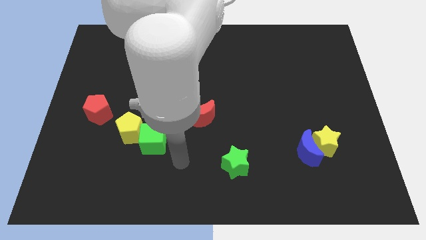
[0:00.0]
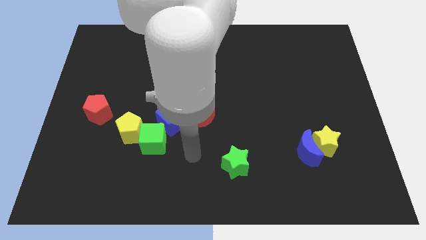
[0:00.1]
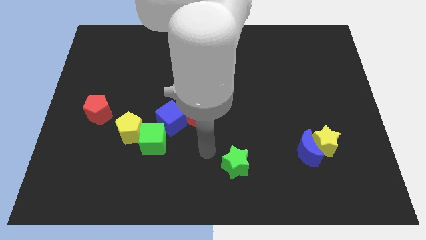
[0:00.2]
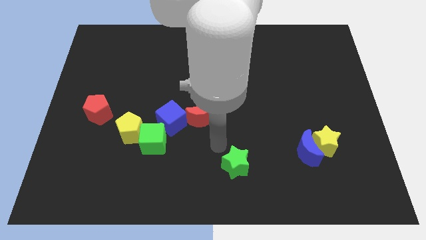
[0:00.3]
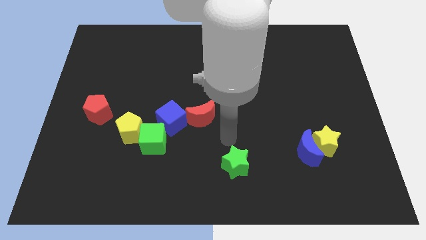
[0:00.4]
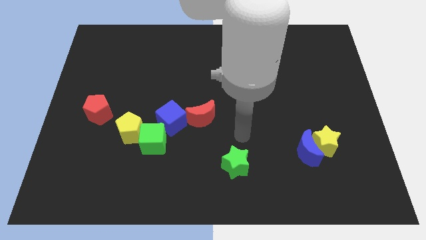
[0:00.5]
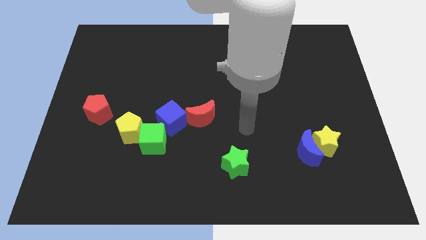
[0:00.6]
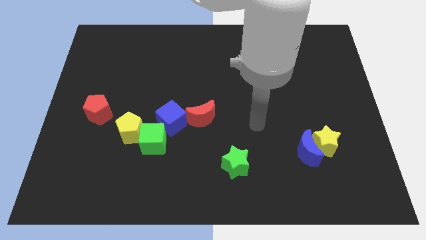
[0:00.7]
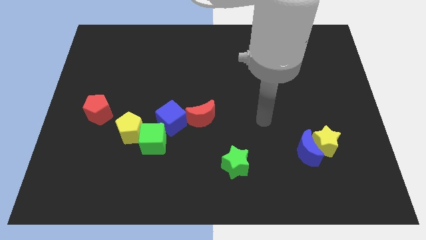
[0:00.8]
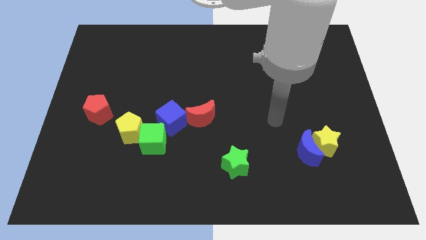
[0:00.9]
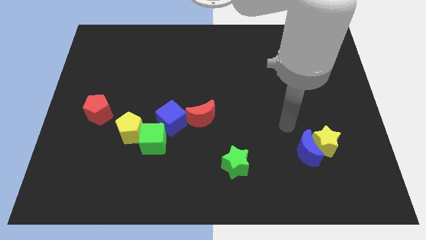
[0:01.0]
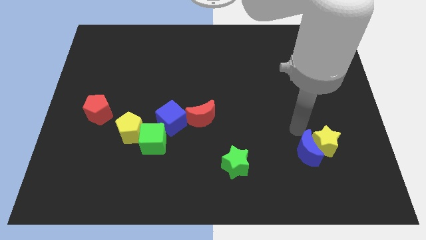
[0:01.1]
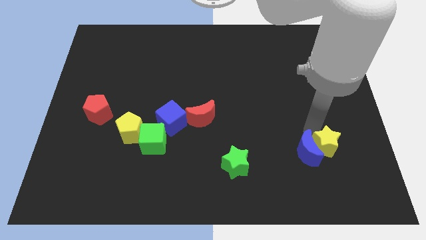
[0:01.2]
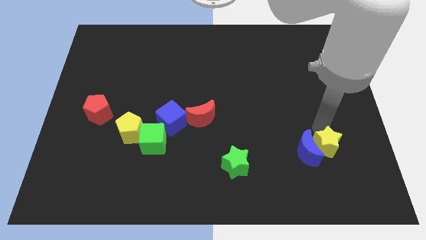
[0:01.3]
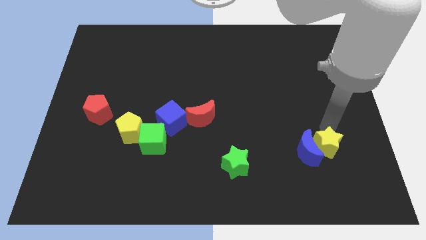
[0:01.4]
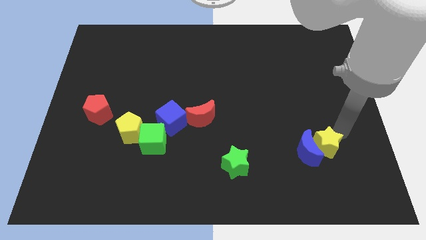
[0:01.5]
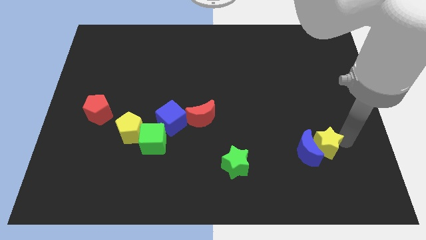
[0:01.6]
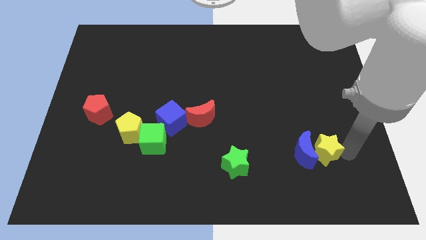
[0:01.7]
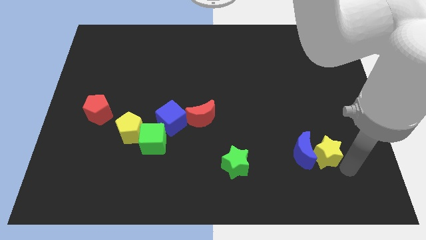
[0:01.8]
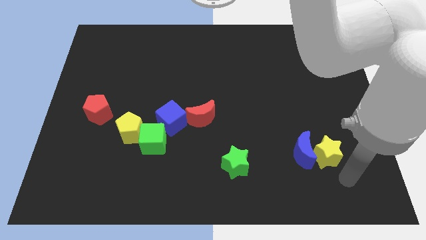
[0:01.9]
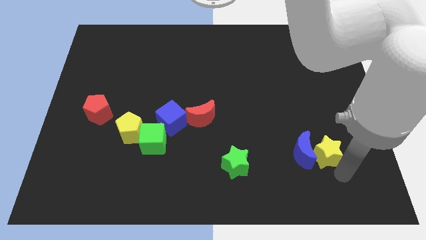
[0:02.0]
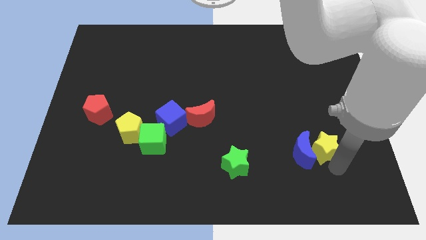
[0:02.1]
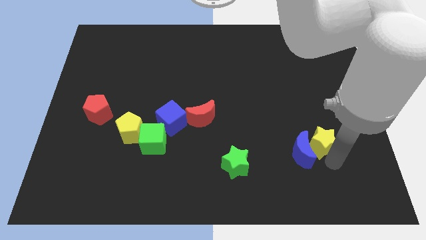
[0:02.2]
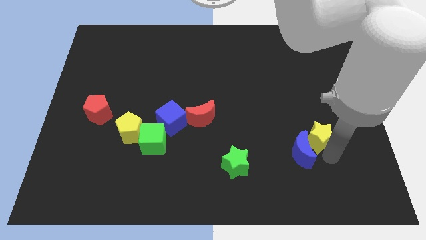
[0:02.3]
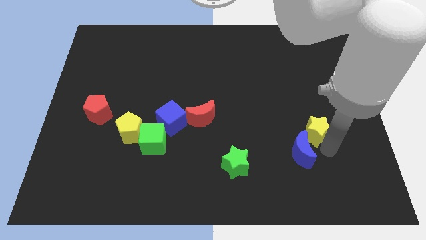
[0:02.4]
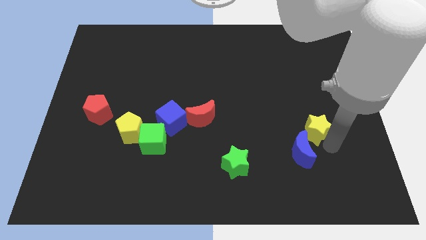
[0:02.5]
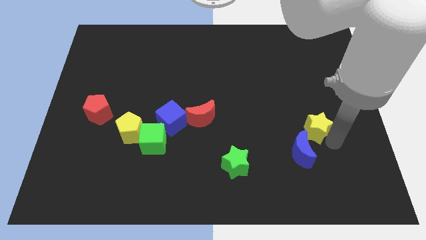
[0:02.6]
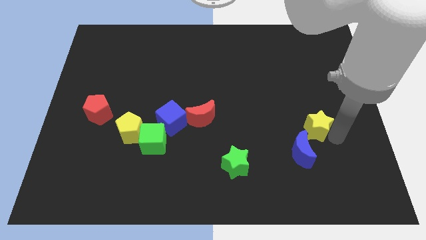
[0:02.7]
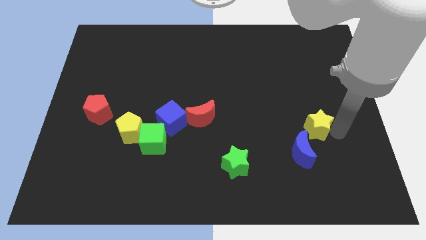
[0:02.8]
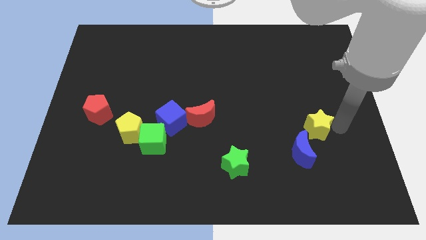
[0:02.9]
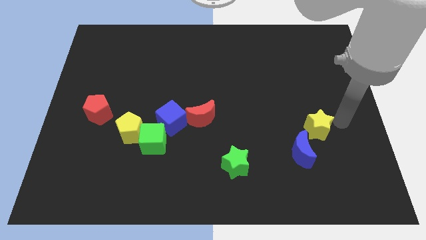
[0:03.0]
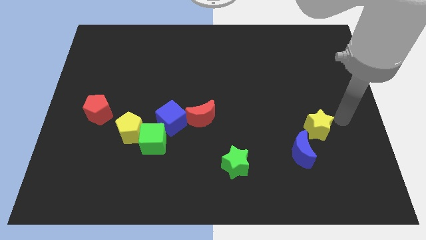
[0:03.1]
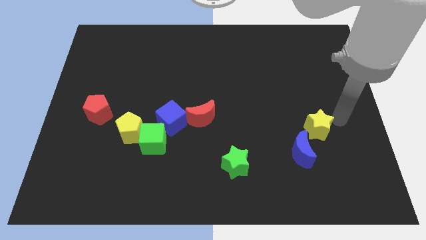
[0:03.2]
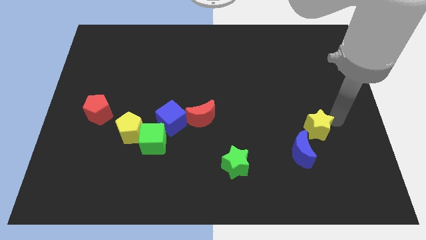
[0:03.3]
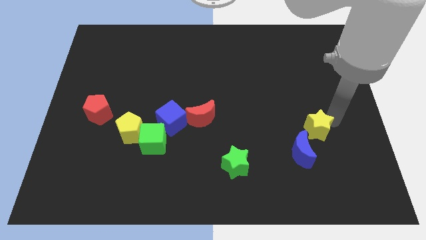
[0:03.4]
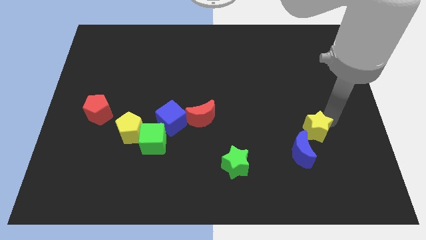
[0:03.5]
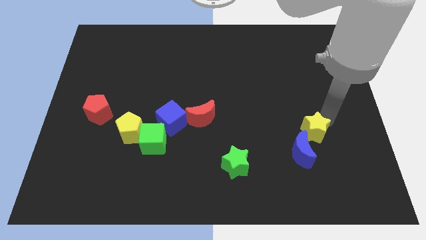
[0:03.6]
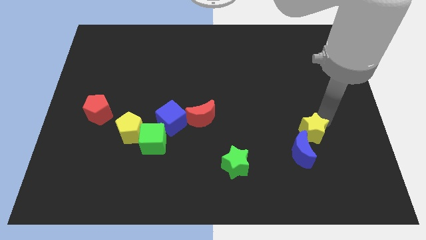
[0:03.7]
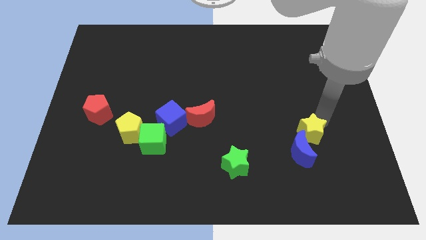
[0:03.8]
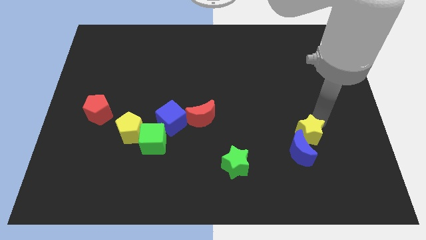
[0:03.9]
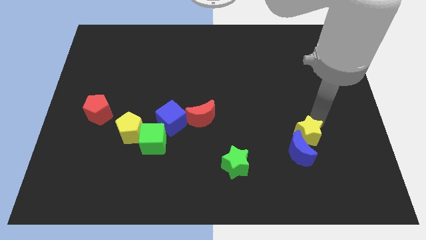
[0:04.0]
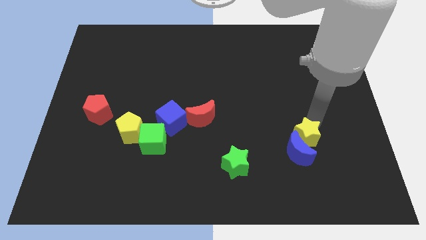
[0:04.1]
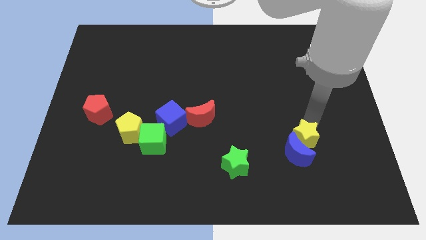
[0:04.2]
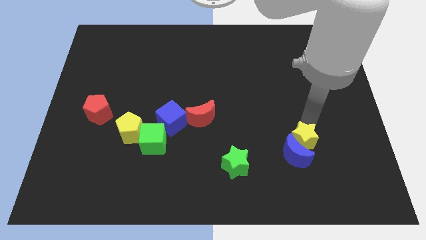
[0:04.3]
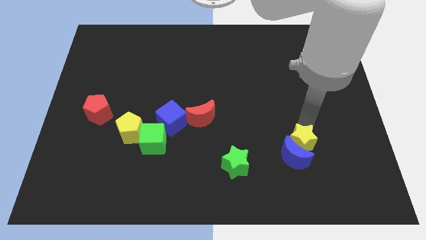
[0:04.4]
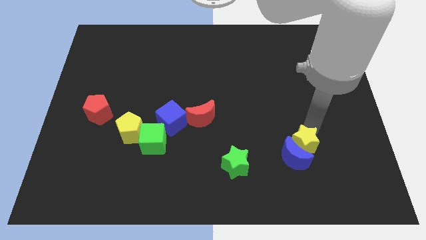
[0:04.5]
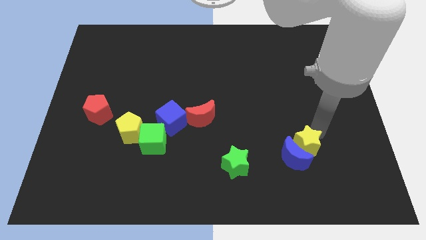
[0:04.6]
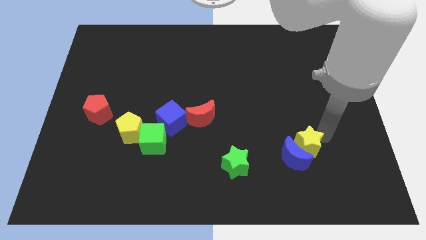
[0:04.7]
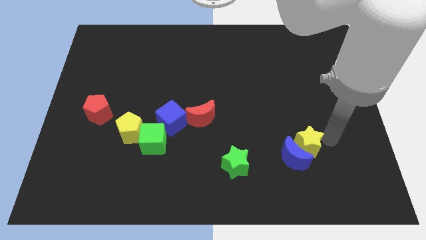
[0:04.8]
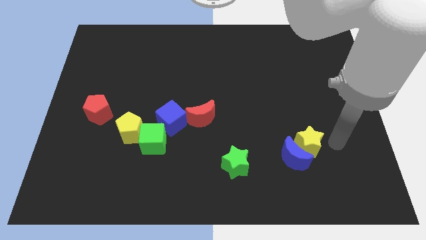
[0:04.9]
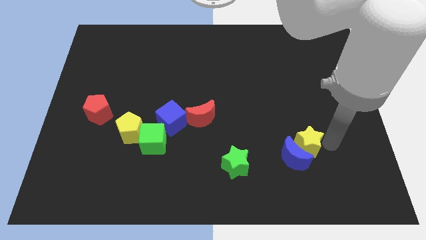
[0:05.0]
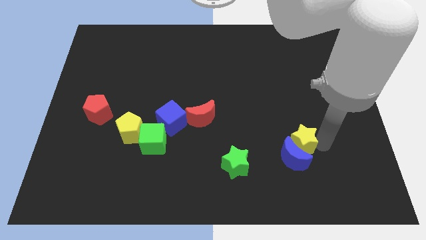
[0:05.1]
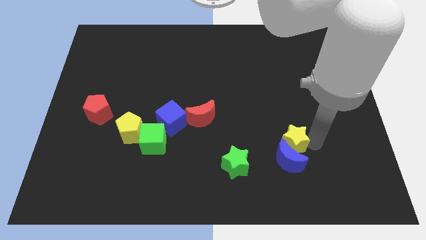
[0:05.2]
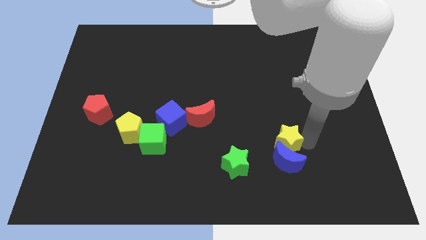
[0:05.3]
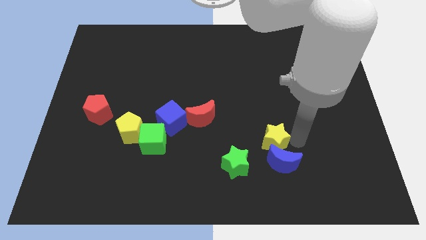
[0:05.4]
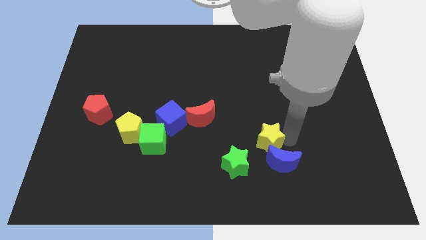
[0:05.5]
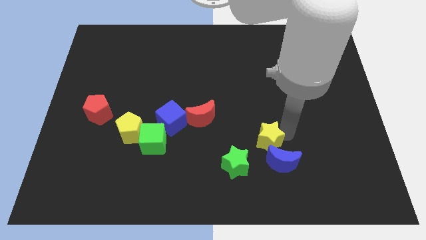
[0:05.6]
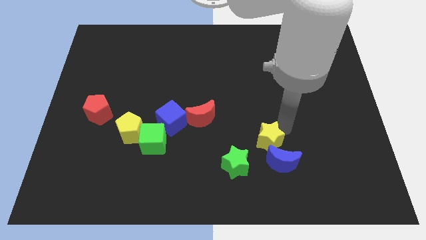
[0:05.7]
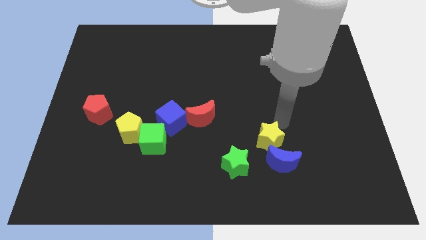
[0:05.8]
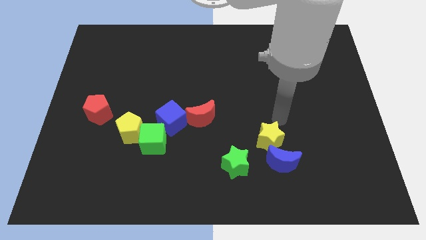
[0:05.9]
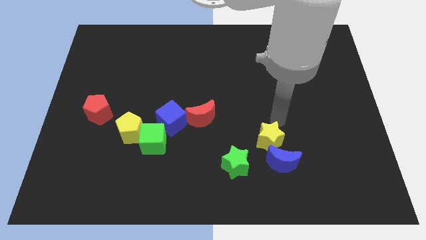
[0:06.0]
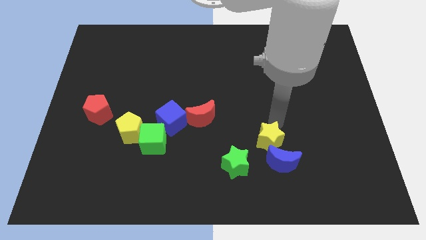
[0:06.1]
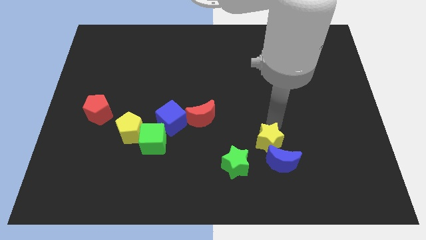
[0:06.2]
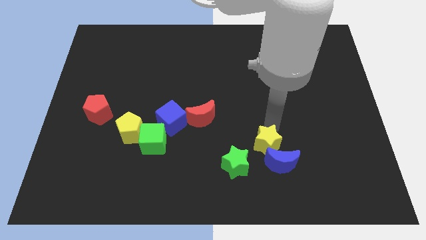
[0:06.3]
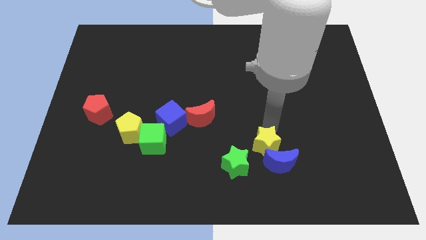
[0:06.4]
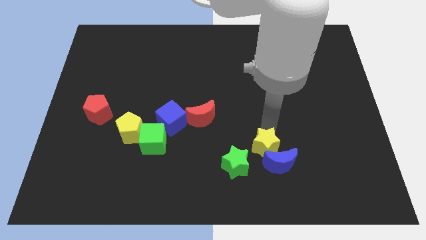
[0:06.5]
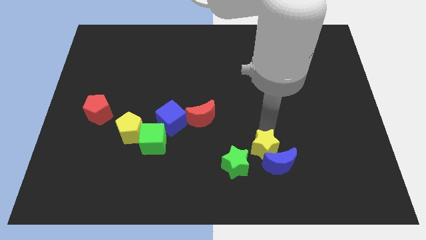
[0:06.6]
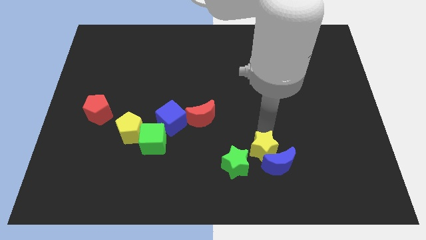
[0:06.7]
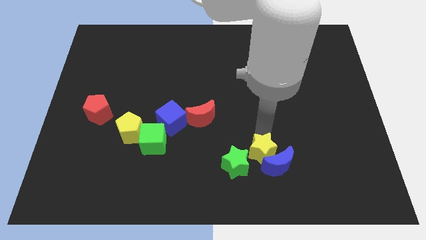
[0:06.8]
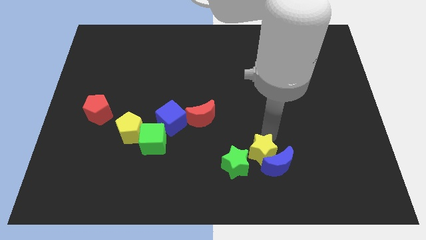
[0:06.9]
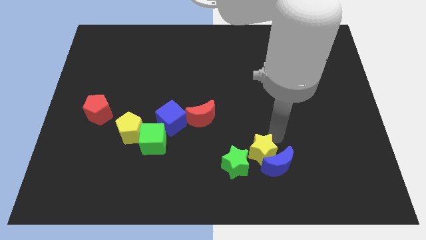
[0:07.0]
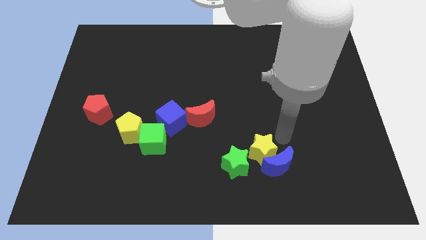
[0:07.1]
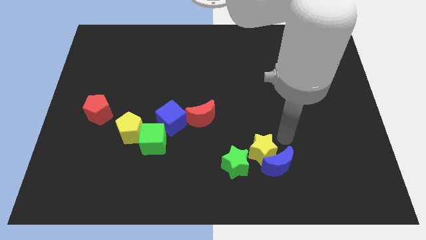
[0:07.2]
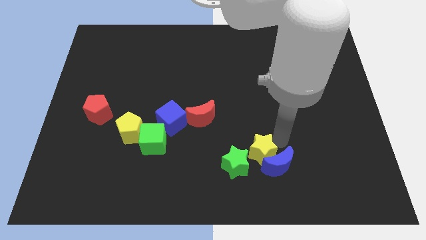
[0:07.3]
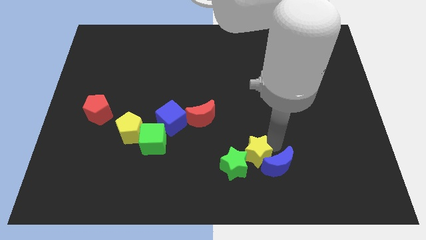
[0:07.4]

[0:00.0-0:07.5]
put the yellow star to the green star
